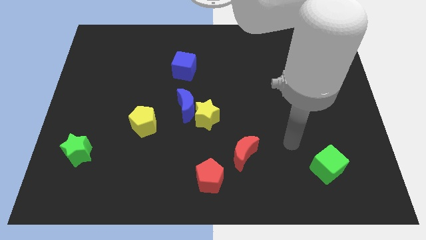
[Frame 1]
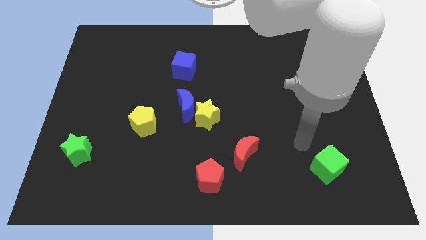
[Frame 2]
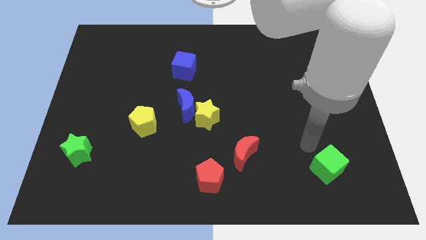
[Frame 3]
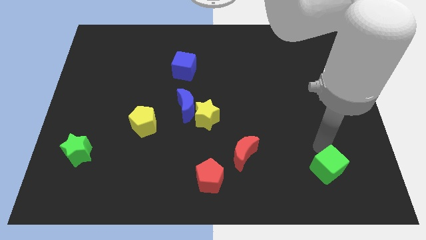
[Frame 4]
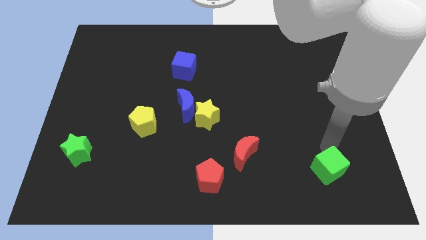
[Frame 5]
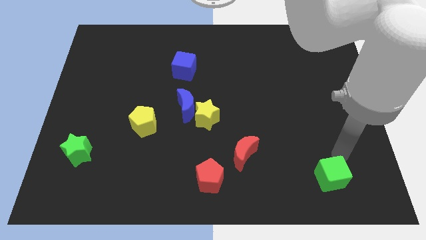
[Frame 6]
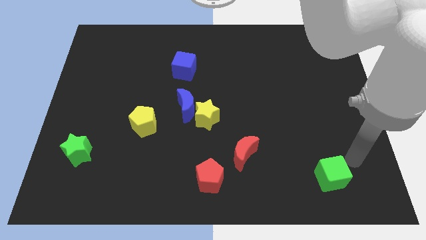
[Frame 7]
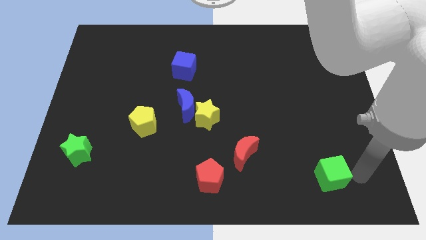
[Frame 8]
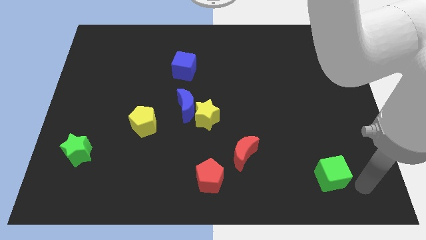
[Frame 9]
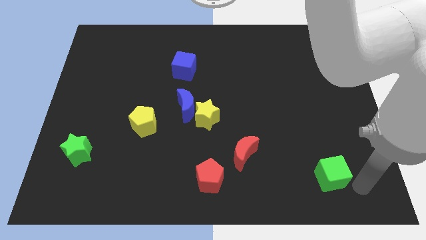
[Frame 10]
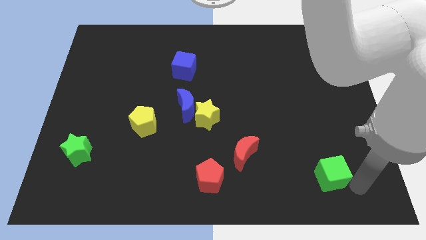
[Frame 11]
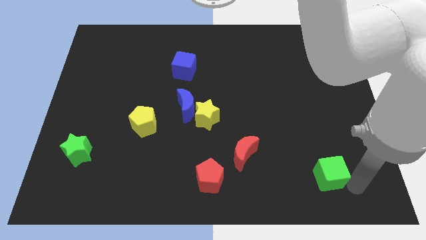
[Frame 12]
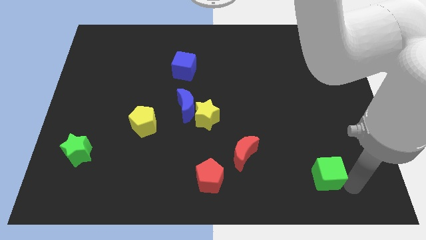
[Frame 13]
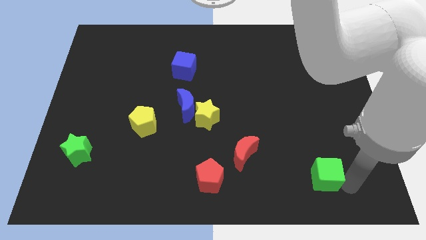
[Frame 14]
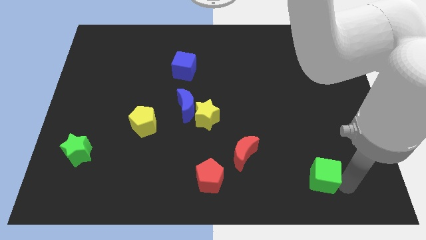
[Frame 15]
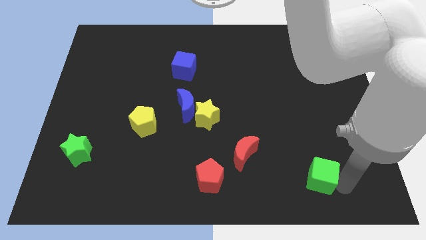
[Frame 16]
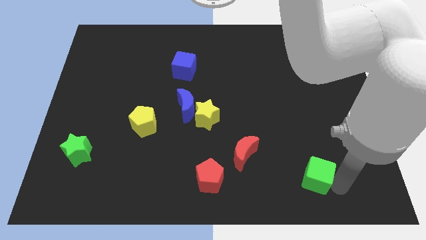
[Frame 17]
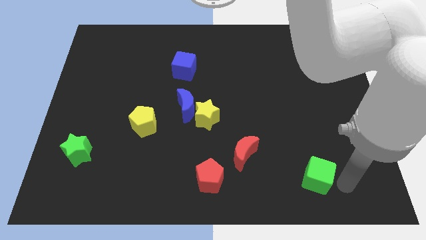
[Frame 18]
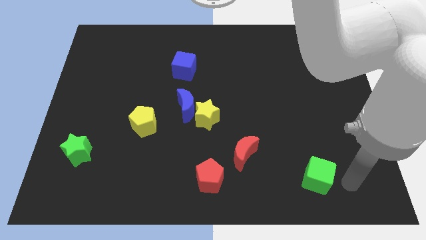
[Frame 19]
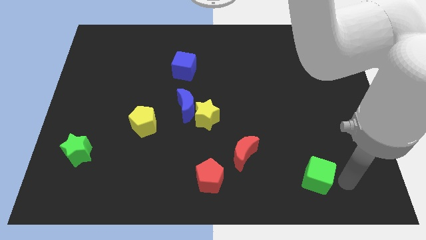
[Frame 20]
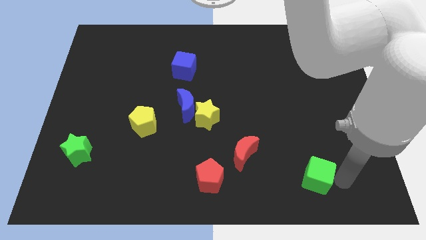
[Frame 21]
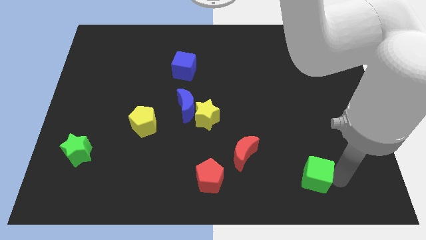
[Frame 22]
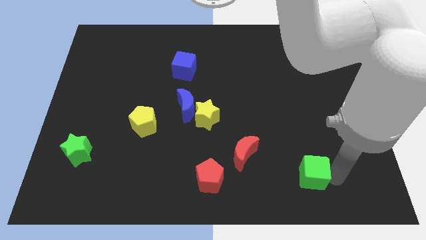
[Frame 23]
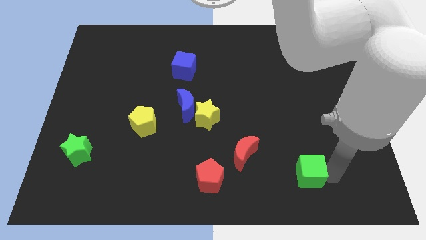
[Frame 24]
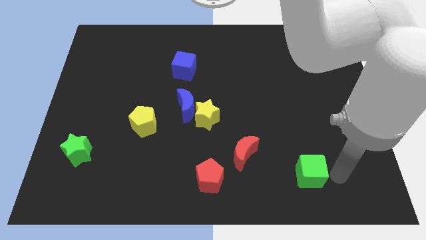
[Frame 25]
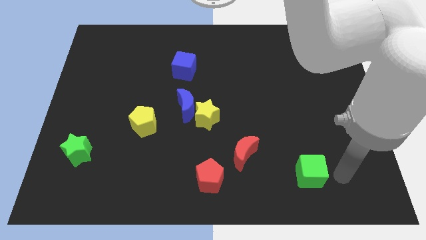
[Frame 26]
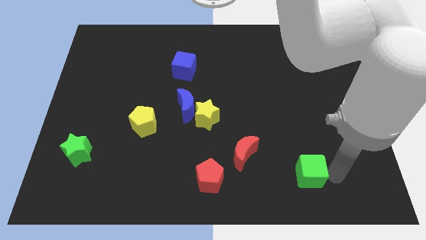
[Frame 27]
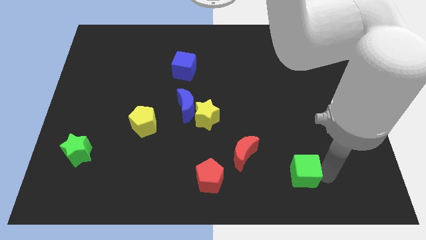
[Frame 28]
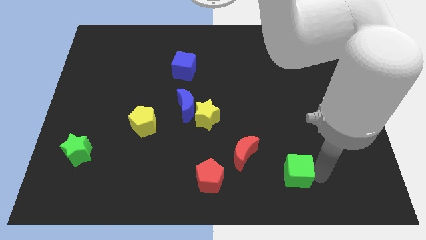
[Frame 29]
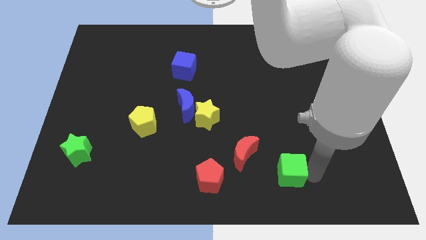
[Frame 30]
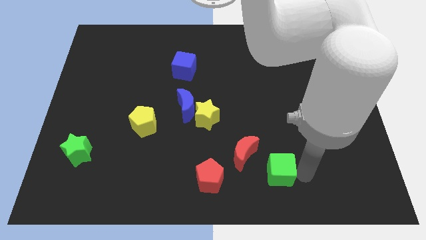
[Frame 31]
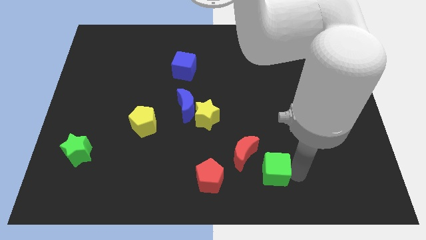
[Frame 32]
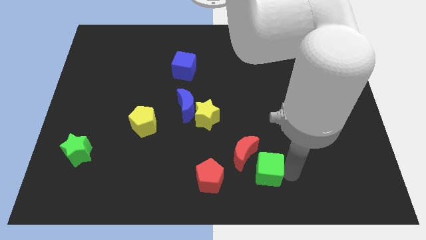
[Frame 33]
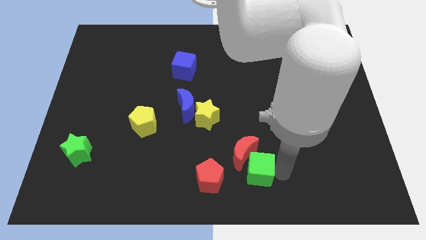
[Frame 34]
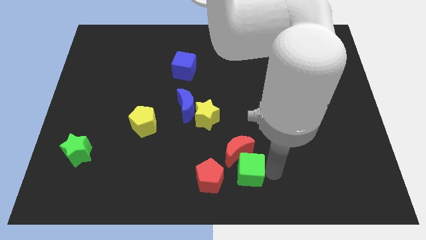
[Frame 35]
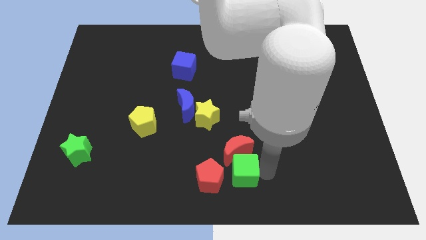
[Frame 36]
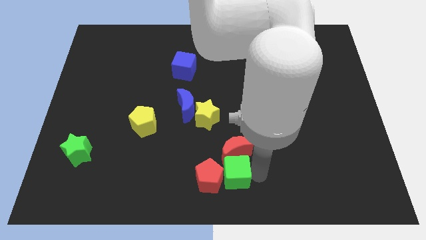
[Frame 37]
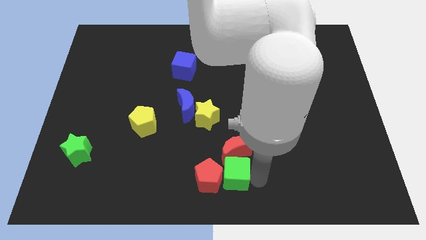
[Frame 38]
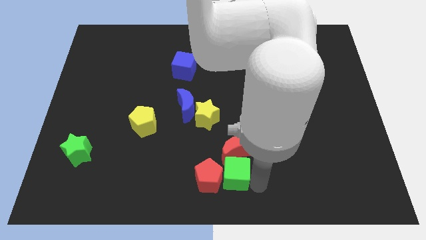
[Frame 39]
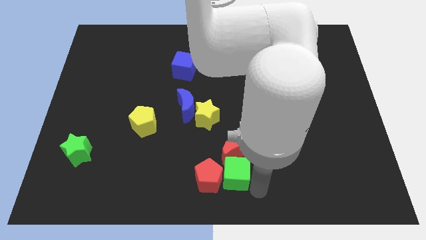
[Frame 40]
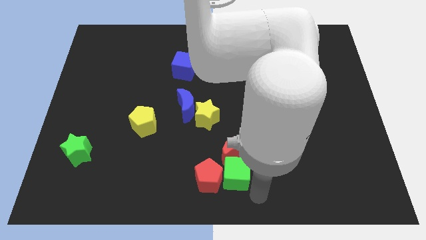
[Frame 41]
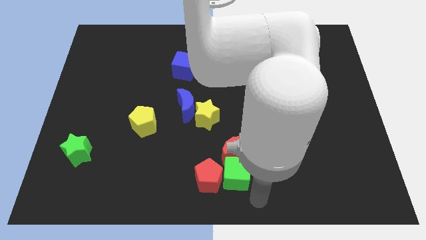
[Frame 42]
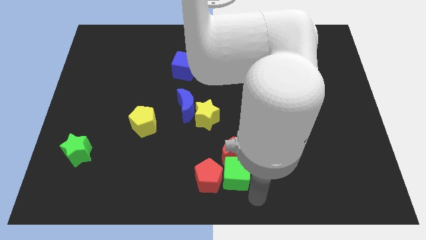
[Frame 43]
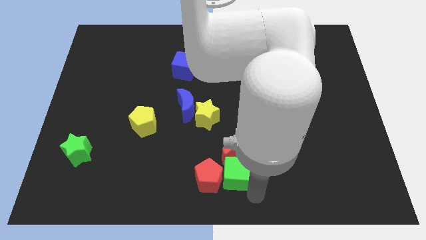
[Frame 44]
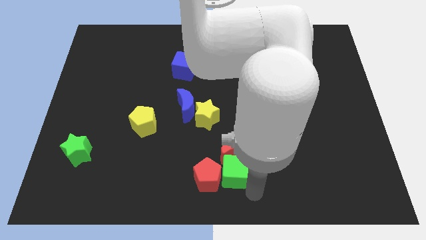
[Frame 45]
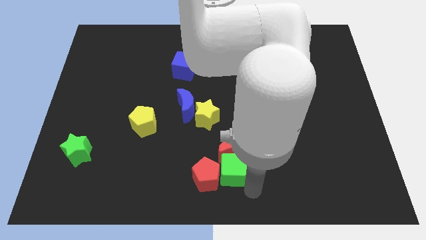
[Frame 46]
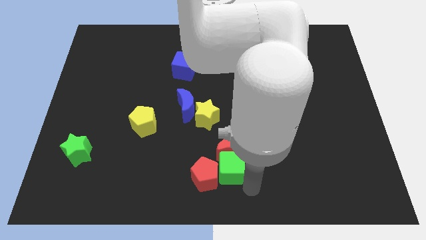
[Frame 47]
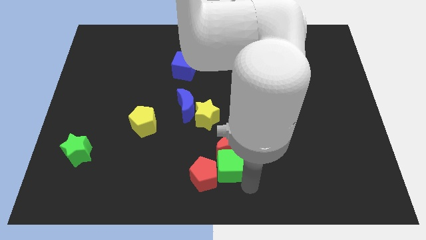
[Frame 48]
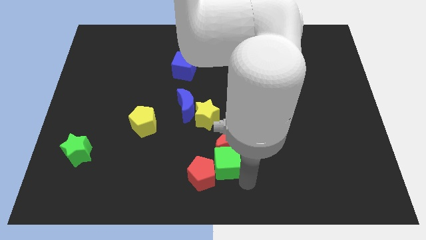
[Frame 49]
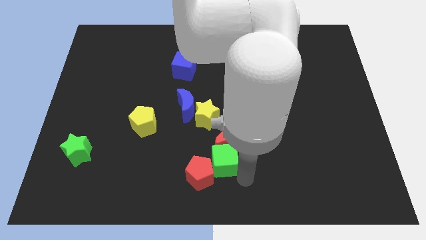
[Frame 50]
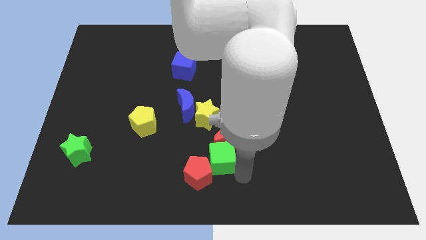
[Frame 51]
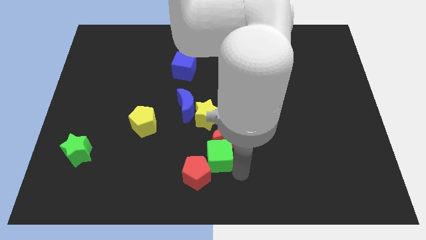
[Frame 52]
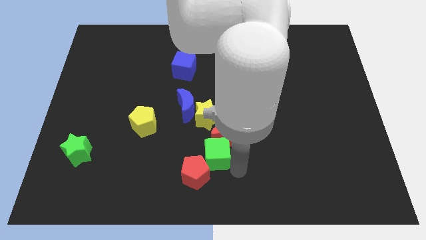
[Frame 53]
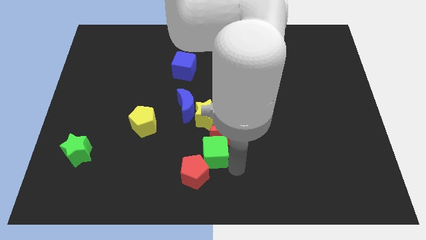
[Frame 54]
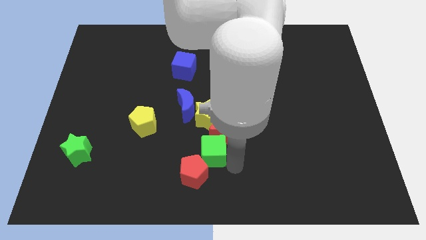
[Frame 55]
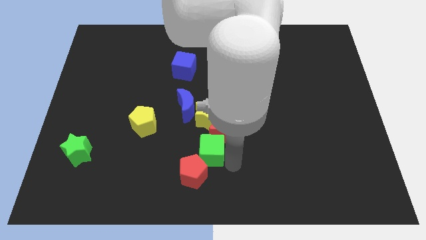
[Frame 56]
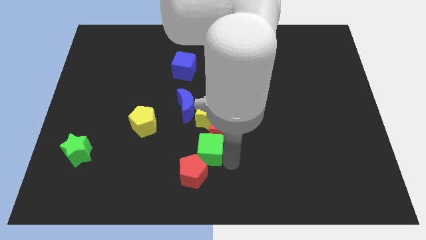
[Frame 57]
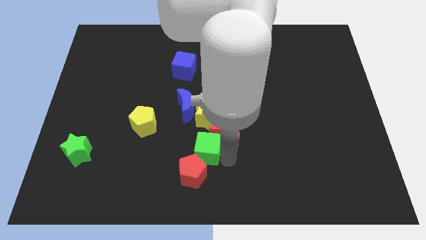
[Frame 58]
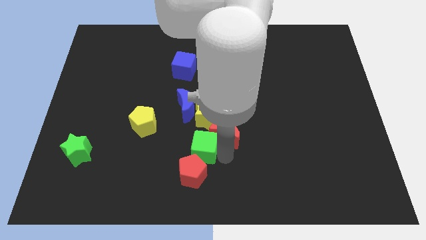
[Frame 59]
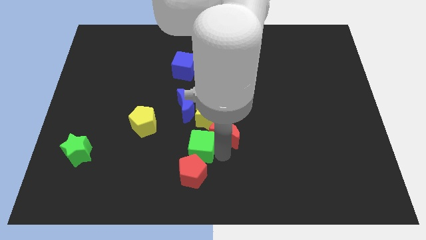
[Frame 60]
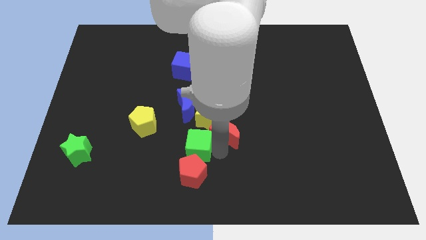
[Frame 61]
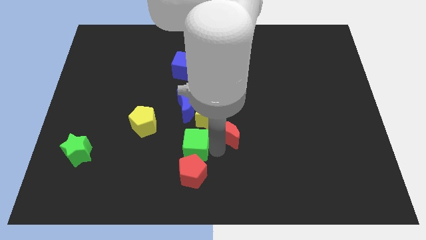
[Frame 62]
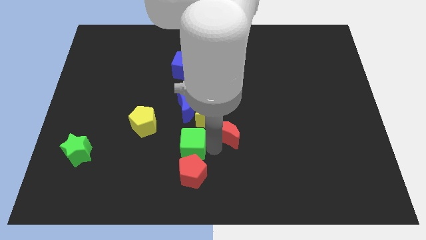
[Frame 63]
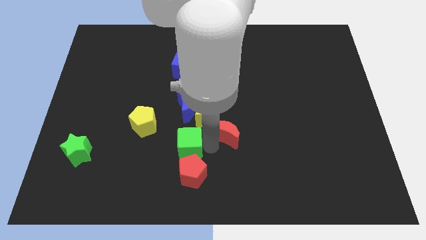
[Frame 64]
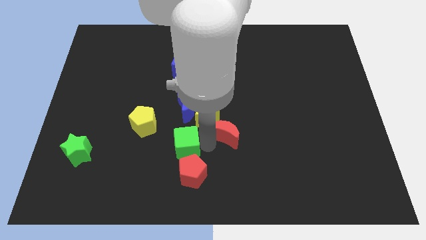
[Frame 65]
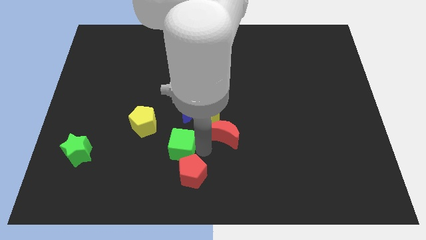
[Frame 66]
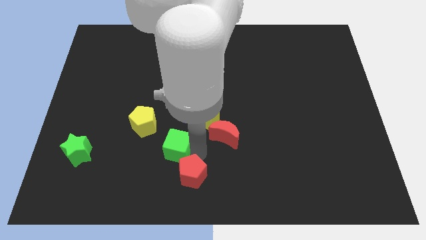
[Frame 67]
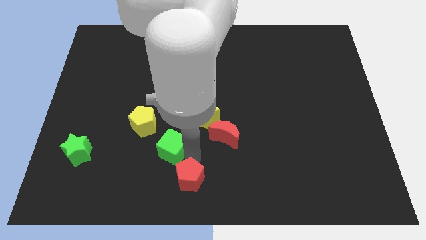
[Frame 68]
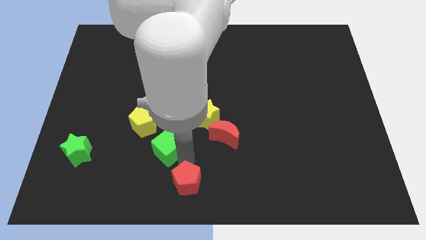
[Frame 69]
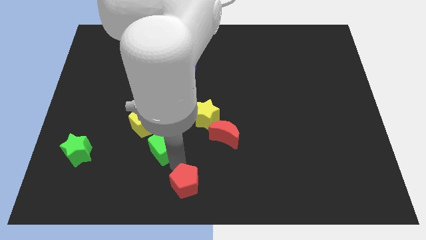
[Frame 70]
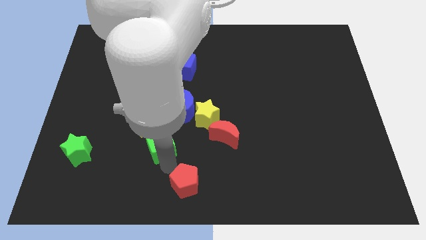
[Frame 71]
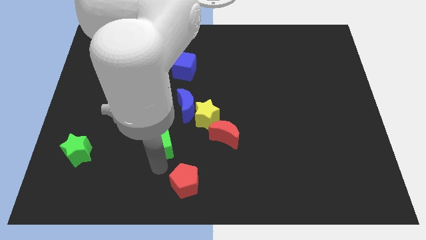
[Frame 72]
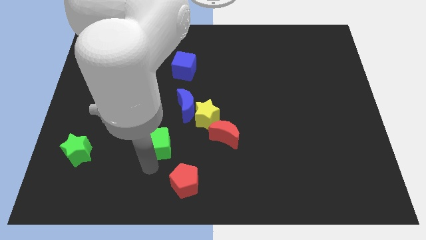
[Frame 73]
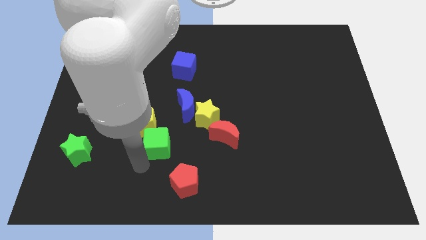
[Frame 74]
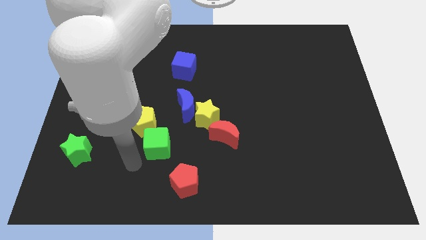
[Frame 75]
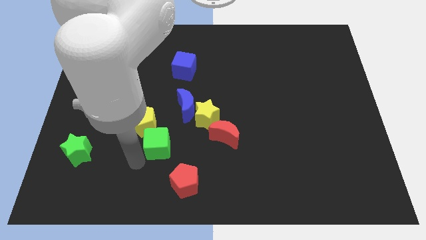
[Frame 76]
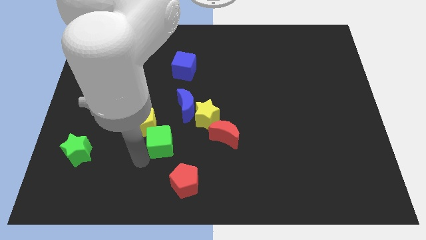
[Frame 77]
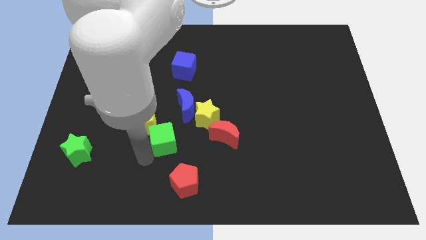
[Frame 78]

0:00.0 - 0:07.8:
push the green cube just right of the yellow pentagon
